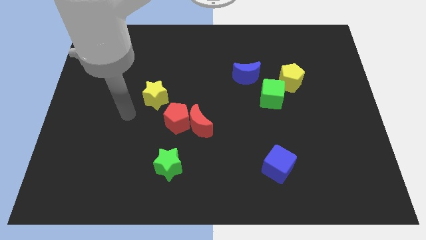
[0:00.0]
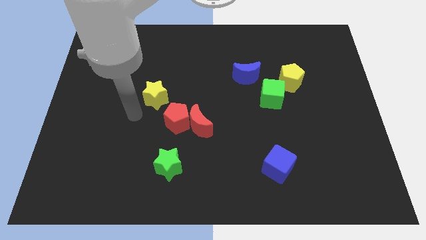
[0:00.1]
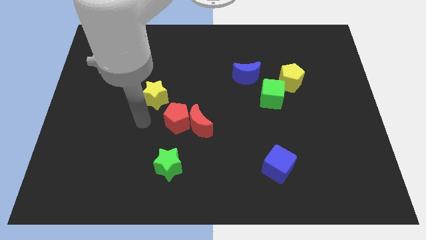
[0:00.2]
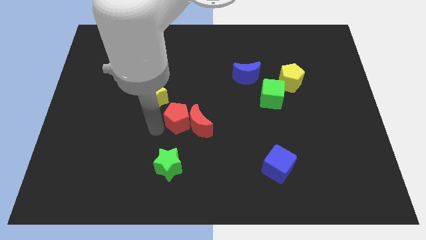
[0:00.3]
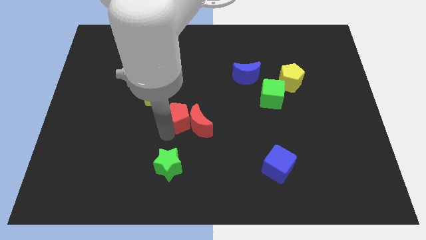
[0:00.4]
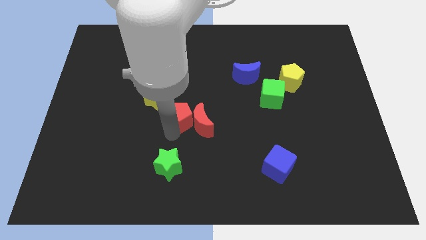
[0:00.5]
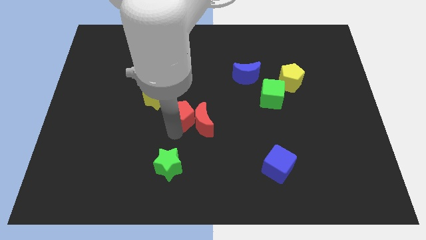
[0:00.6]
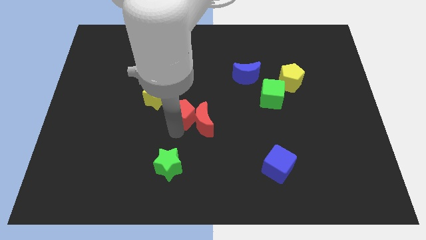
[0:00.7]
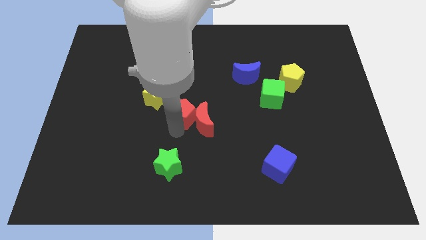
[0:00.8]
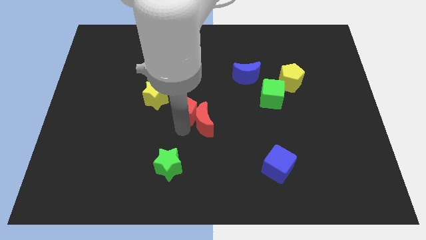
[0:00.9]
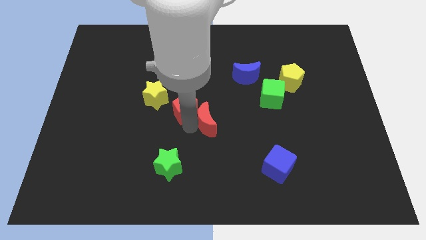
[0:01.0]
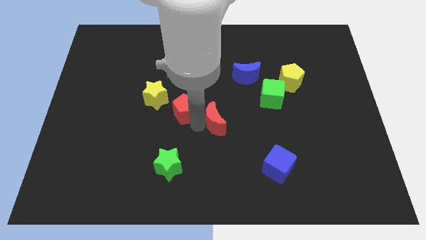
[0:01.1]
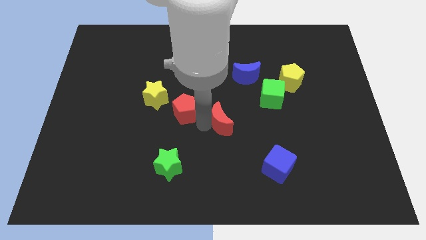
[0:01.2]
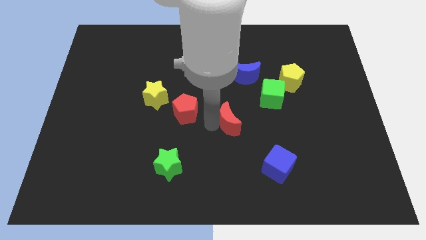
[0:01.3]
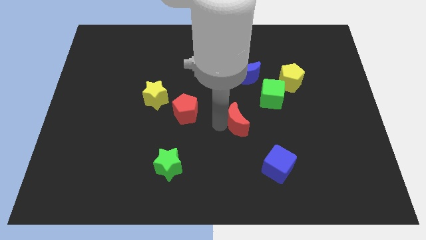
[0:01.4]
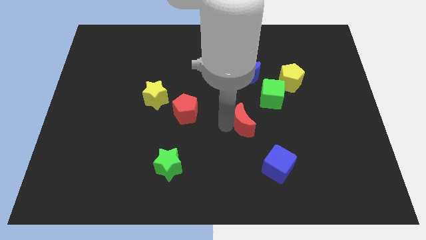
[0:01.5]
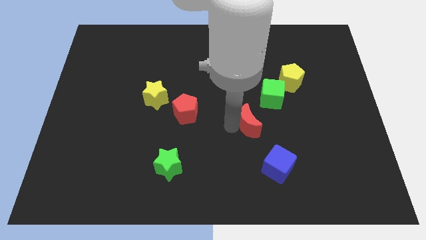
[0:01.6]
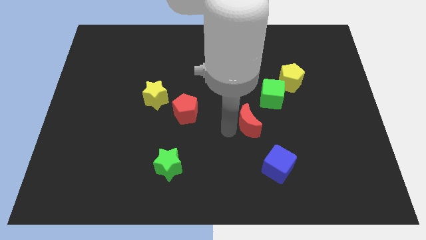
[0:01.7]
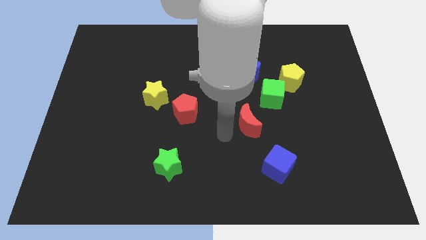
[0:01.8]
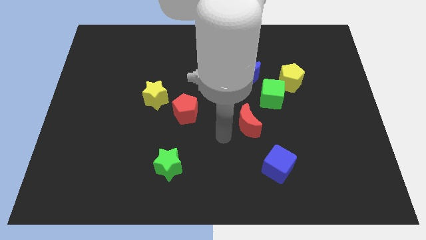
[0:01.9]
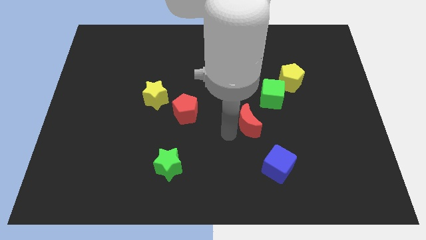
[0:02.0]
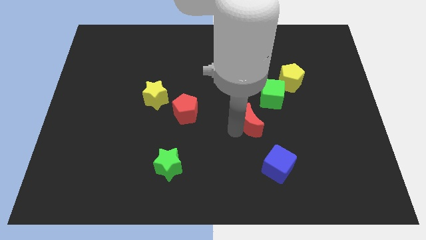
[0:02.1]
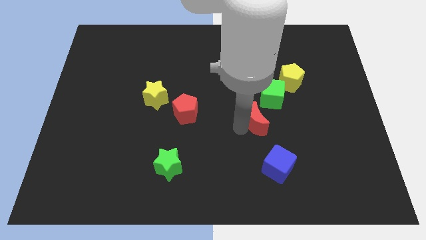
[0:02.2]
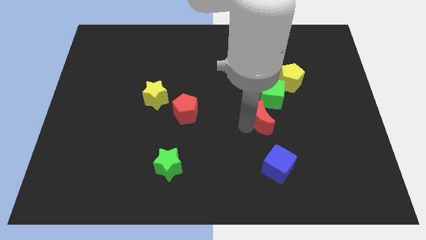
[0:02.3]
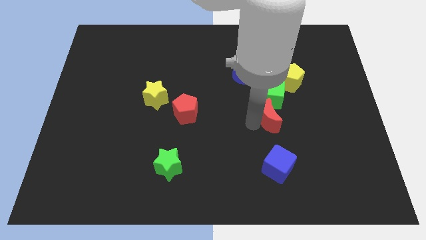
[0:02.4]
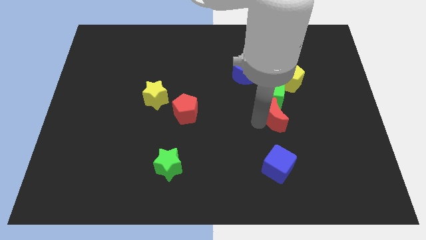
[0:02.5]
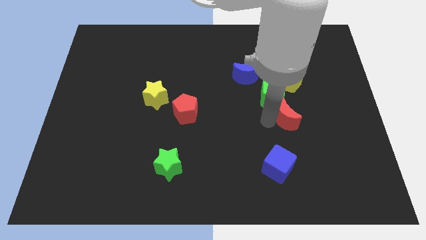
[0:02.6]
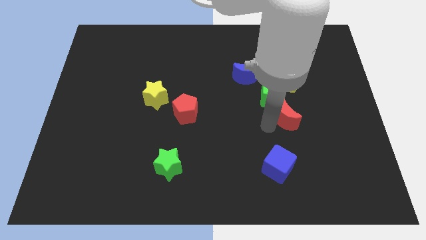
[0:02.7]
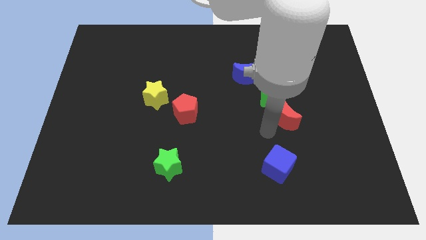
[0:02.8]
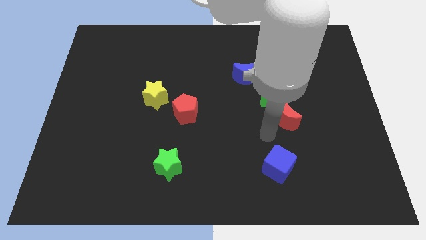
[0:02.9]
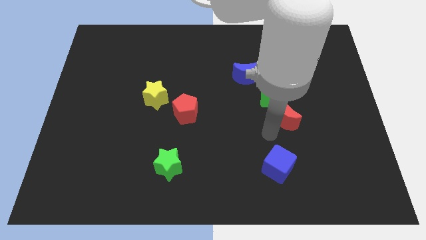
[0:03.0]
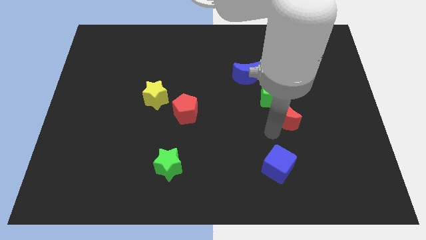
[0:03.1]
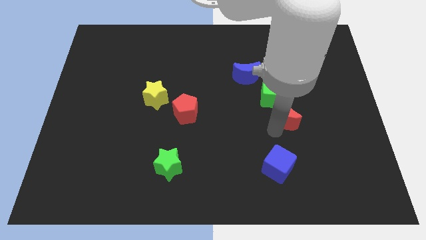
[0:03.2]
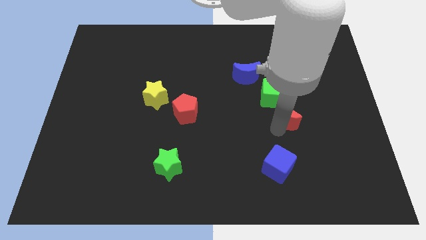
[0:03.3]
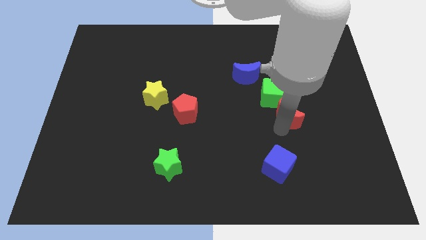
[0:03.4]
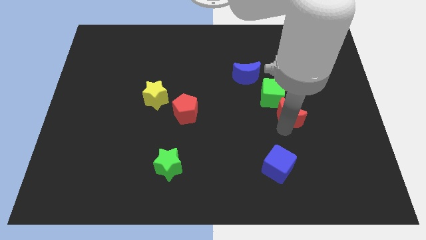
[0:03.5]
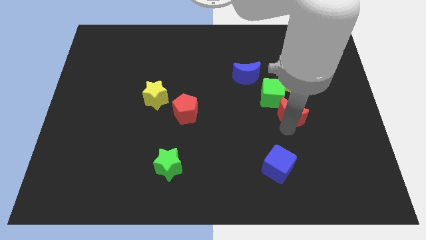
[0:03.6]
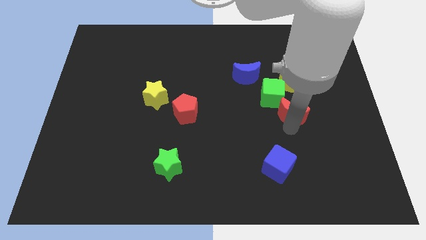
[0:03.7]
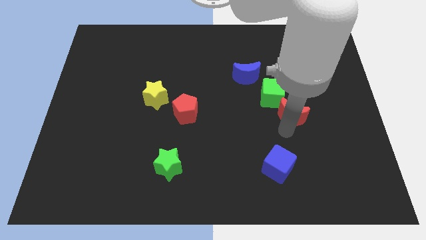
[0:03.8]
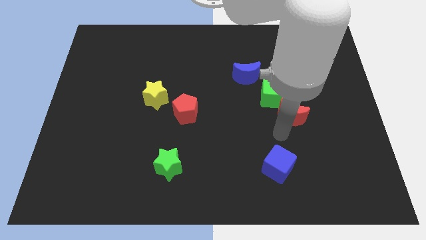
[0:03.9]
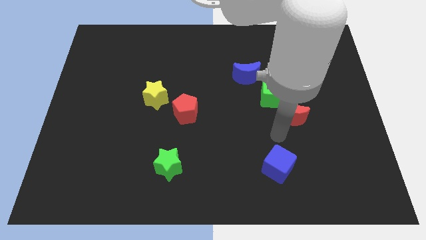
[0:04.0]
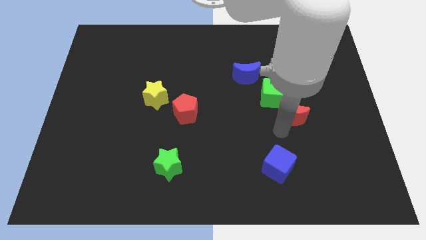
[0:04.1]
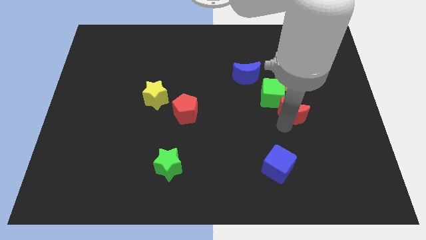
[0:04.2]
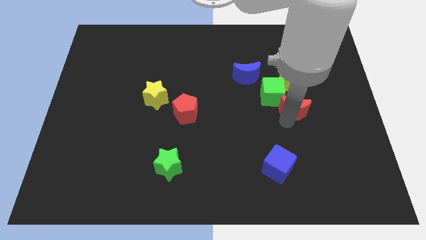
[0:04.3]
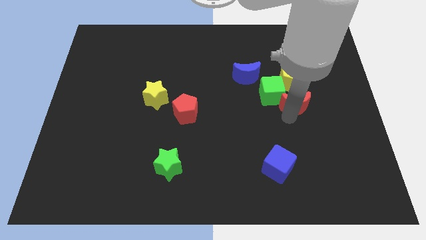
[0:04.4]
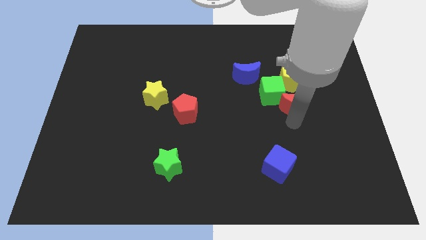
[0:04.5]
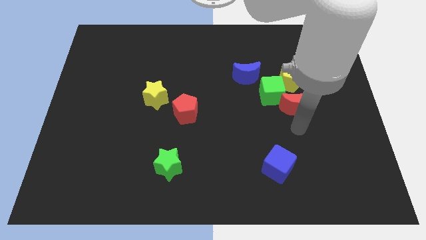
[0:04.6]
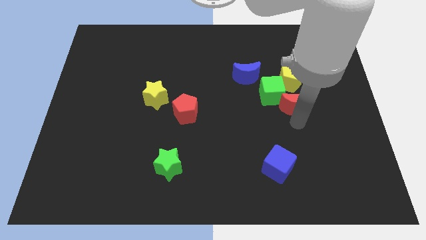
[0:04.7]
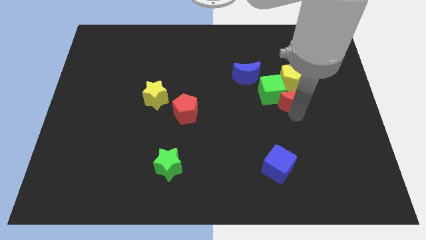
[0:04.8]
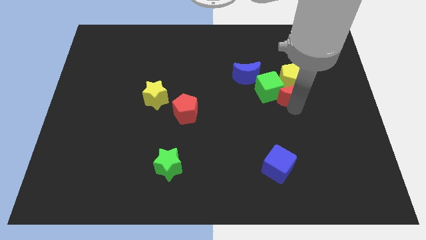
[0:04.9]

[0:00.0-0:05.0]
move the red moon to the yellow pentagon

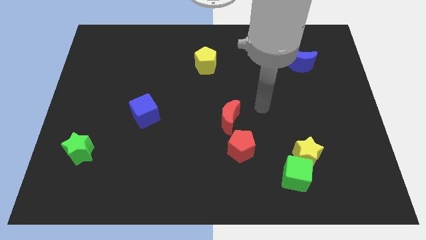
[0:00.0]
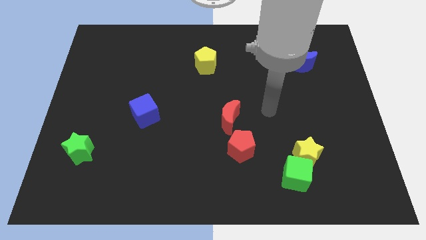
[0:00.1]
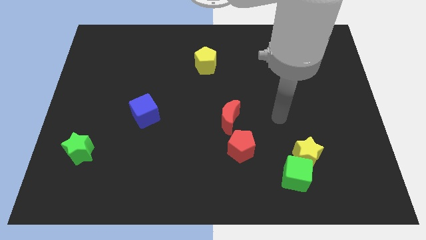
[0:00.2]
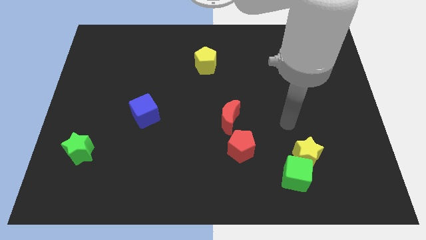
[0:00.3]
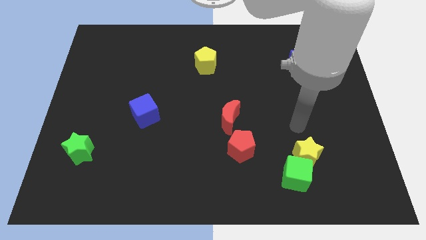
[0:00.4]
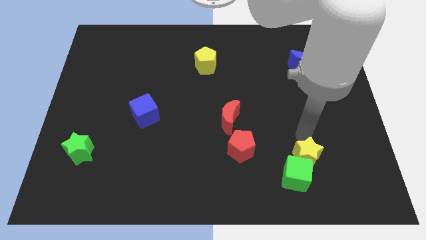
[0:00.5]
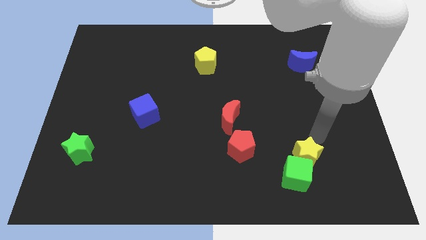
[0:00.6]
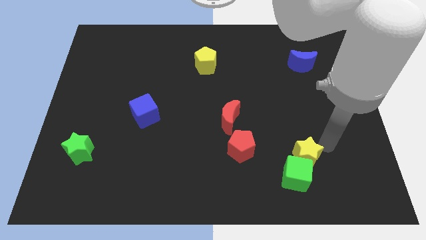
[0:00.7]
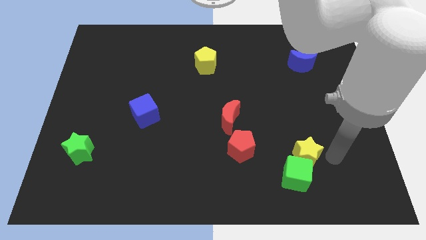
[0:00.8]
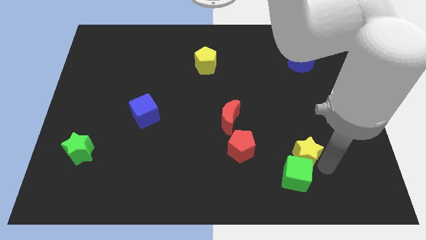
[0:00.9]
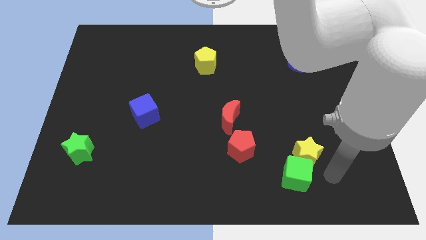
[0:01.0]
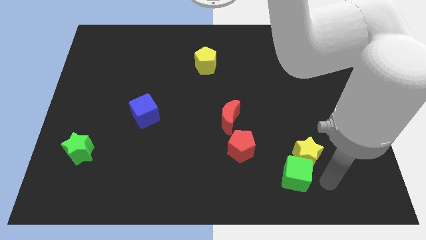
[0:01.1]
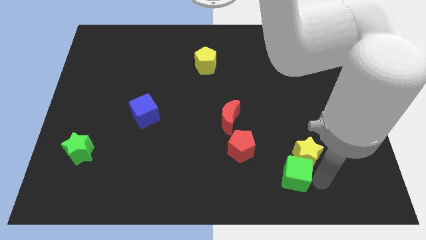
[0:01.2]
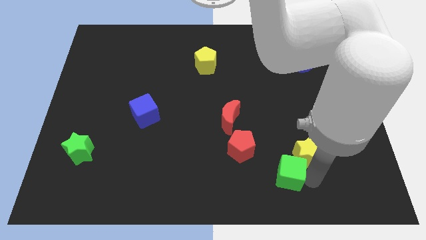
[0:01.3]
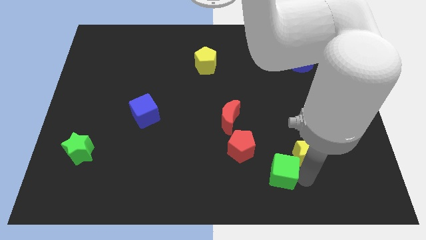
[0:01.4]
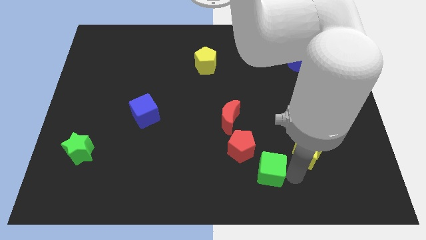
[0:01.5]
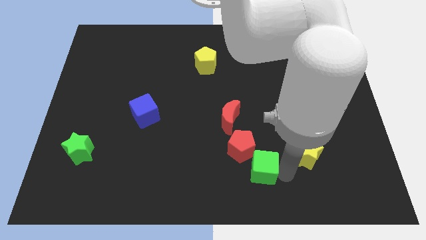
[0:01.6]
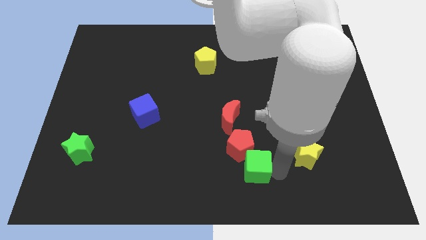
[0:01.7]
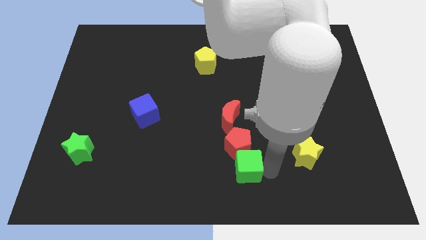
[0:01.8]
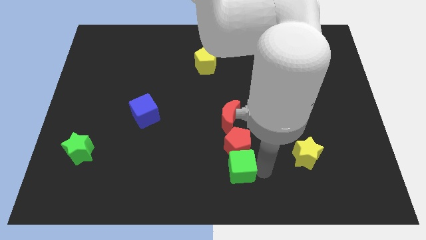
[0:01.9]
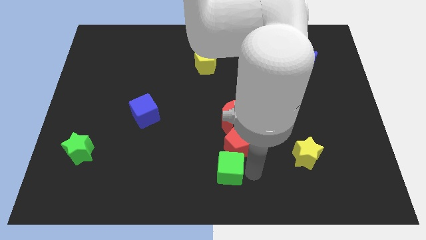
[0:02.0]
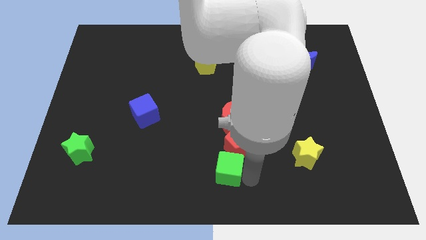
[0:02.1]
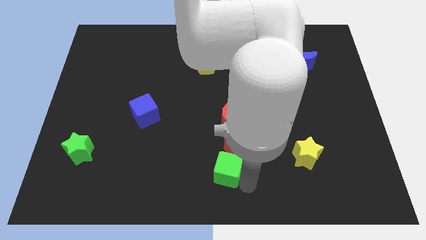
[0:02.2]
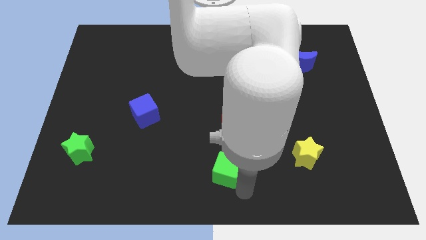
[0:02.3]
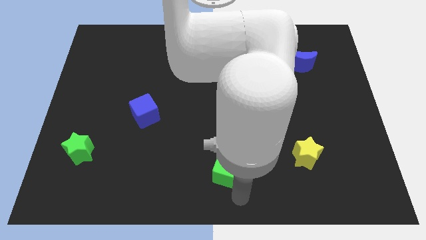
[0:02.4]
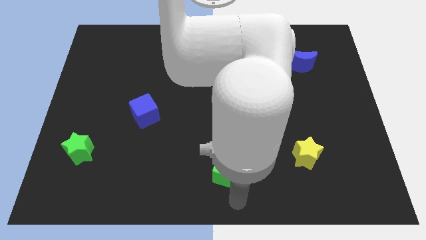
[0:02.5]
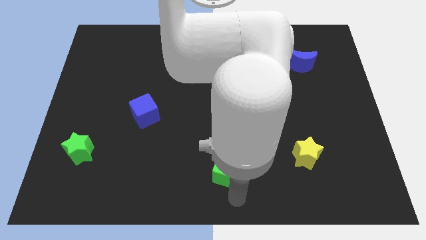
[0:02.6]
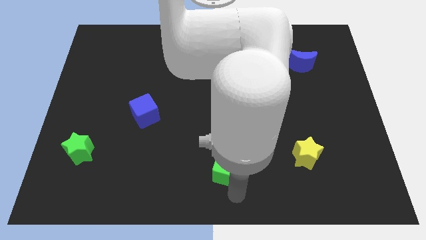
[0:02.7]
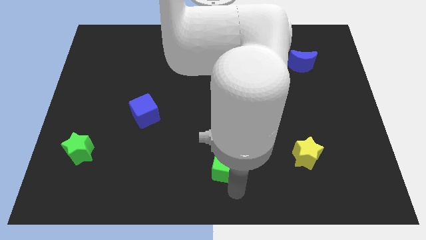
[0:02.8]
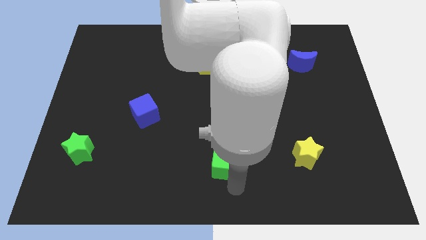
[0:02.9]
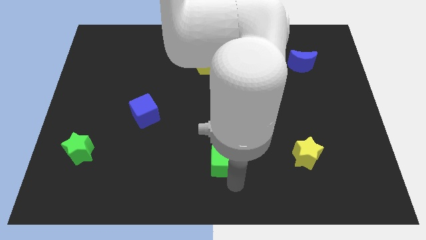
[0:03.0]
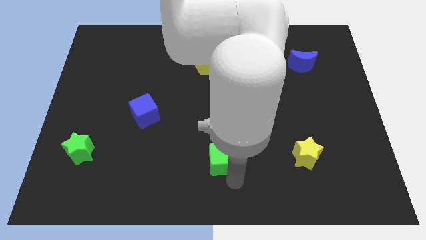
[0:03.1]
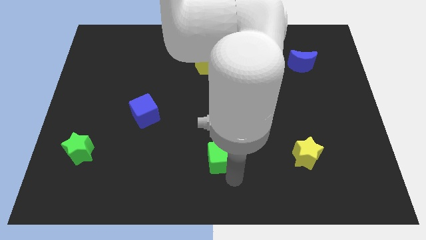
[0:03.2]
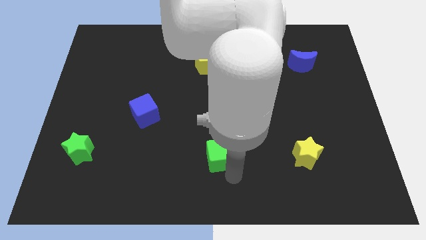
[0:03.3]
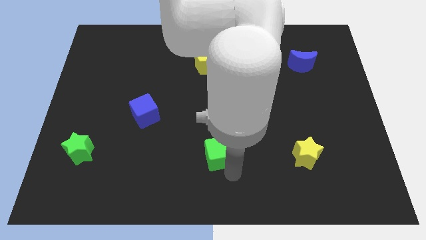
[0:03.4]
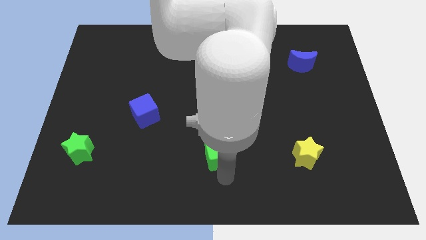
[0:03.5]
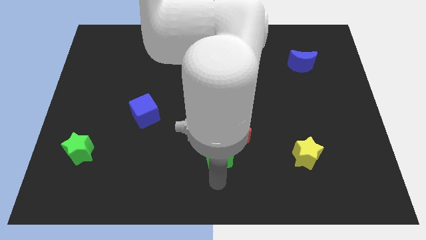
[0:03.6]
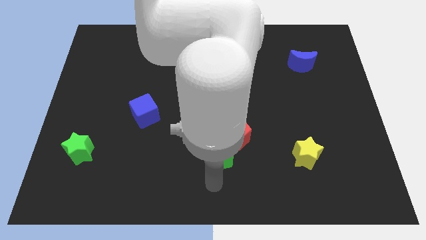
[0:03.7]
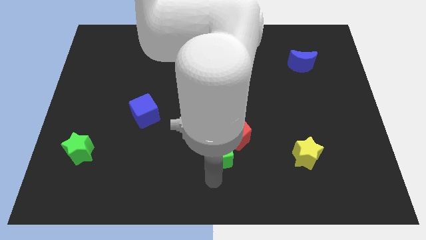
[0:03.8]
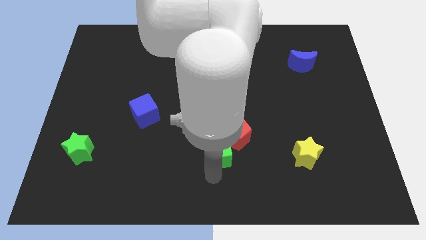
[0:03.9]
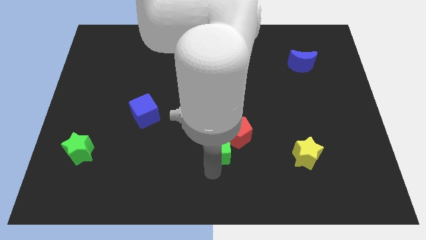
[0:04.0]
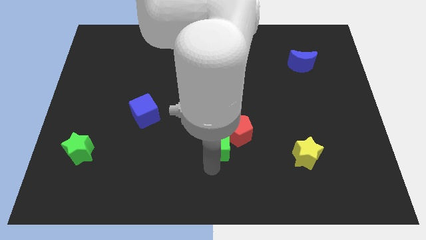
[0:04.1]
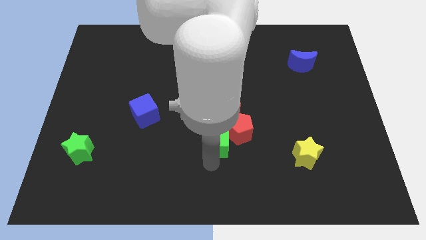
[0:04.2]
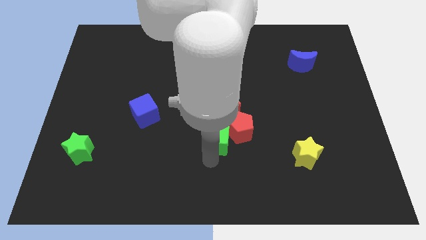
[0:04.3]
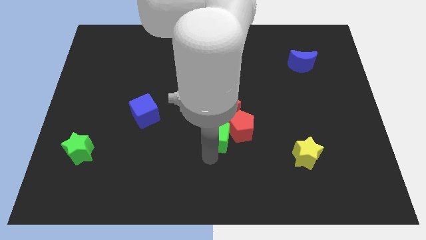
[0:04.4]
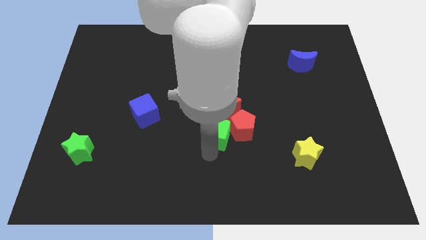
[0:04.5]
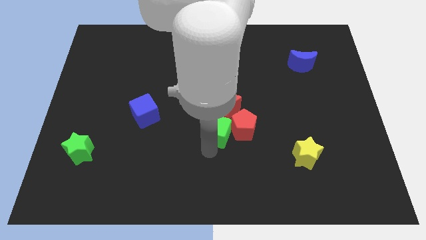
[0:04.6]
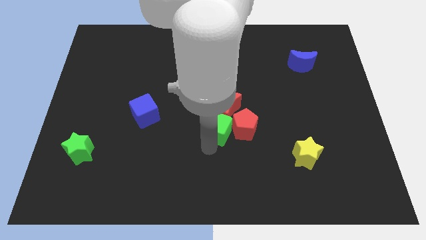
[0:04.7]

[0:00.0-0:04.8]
push the green cube towards the red moon
